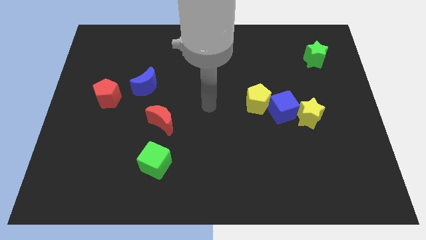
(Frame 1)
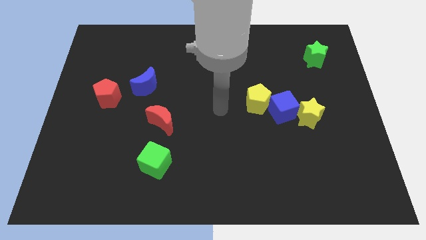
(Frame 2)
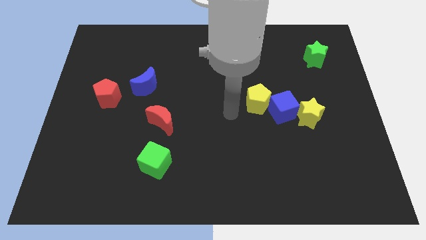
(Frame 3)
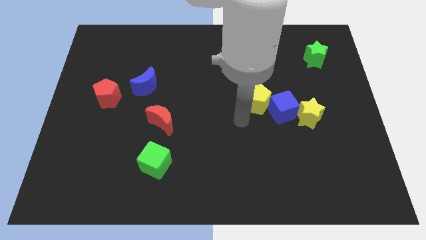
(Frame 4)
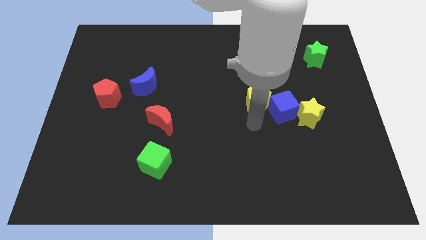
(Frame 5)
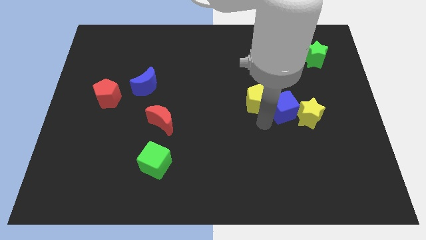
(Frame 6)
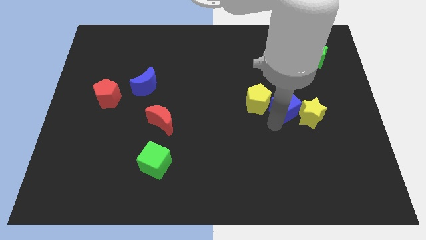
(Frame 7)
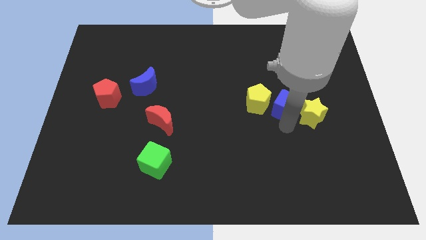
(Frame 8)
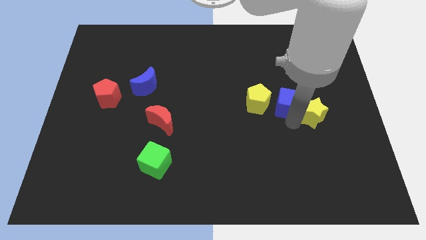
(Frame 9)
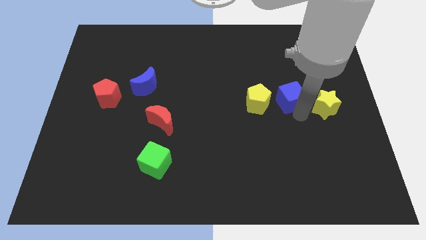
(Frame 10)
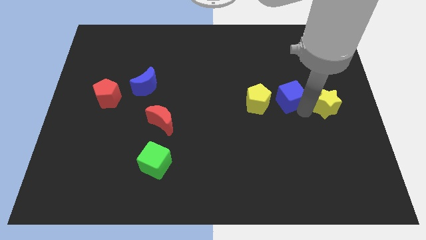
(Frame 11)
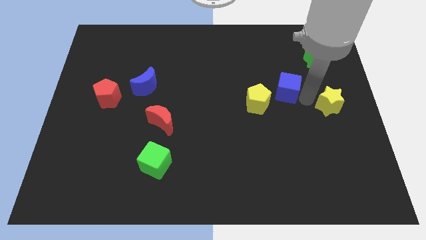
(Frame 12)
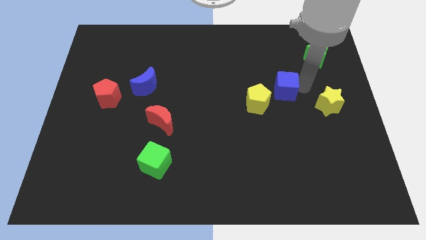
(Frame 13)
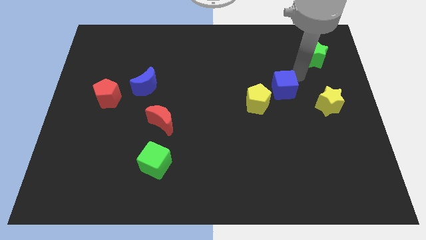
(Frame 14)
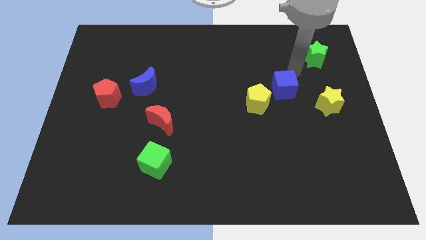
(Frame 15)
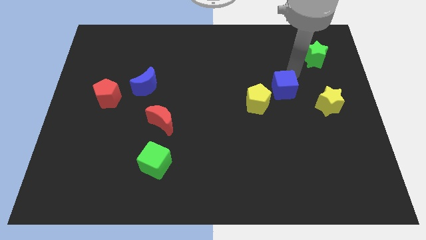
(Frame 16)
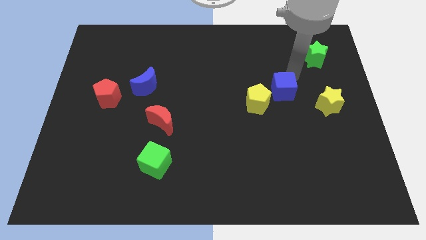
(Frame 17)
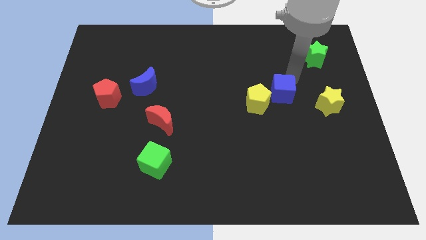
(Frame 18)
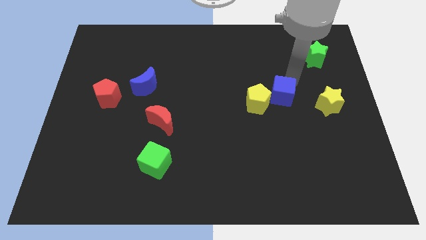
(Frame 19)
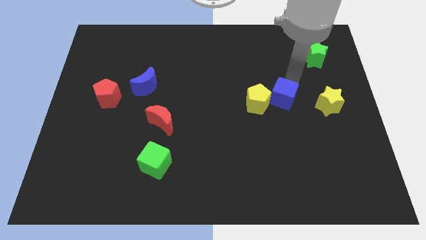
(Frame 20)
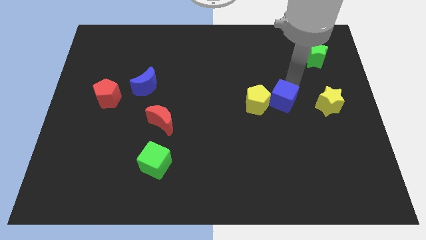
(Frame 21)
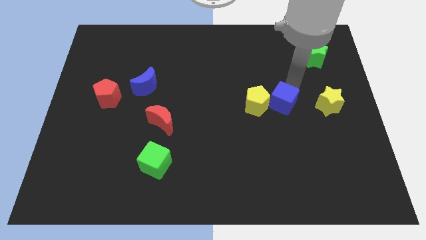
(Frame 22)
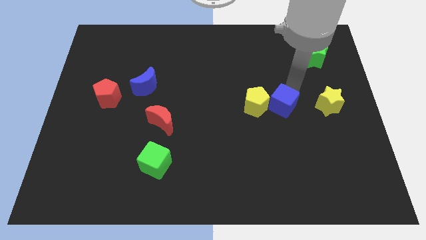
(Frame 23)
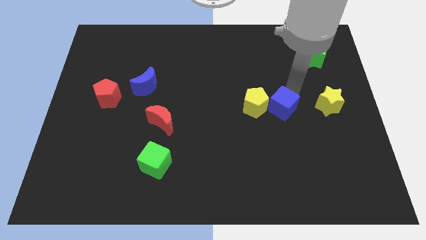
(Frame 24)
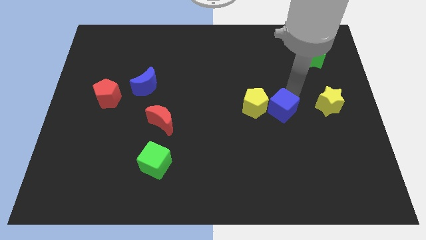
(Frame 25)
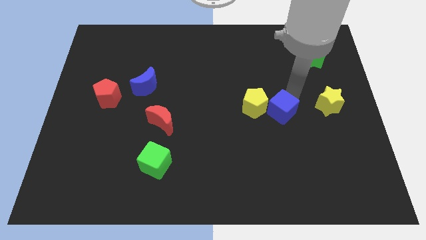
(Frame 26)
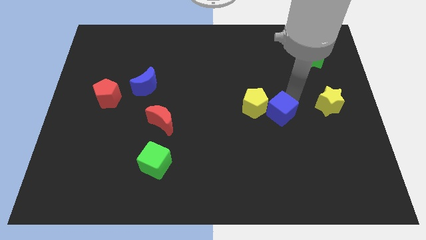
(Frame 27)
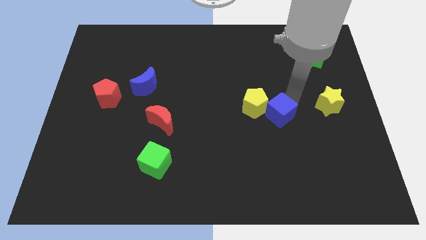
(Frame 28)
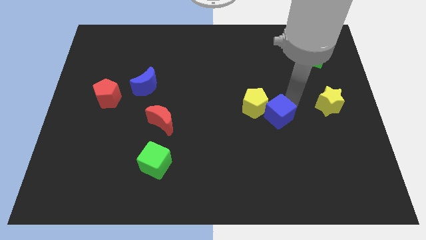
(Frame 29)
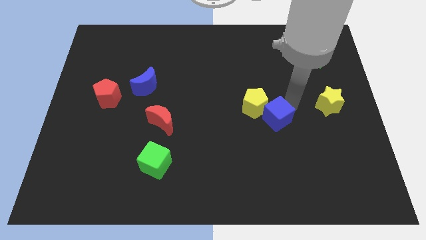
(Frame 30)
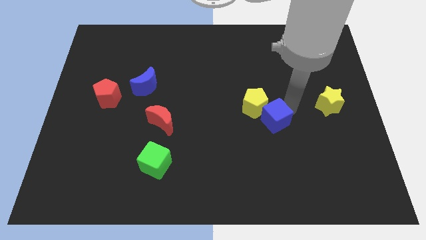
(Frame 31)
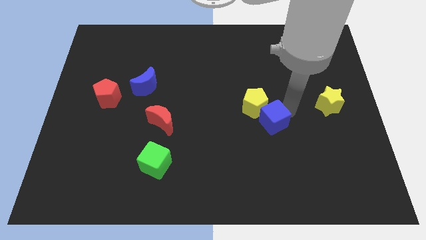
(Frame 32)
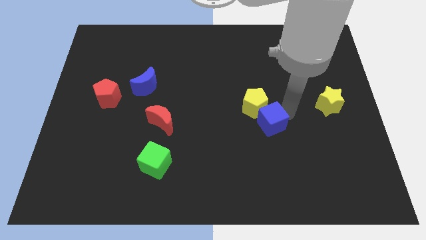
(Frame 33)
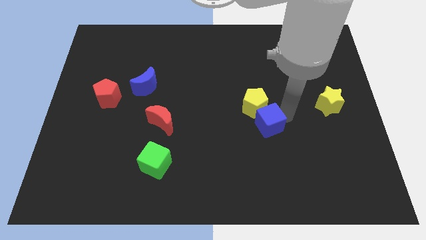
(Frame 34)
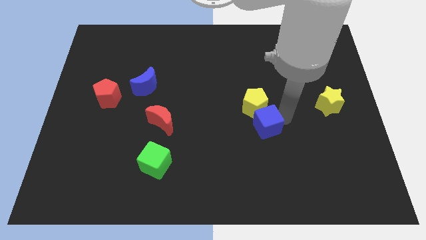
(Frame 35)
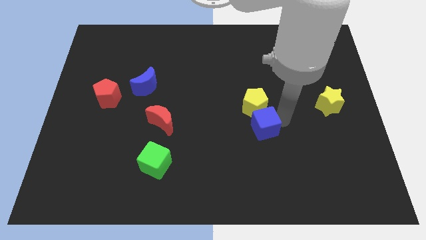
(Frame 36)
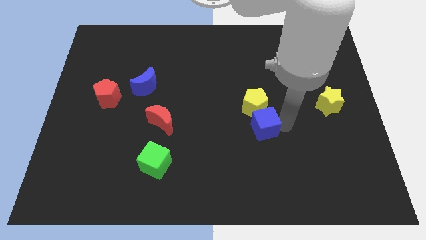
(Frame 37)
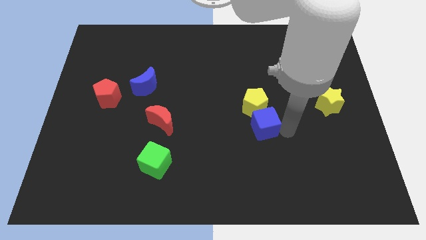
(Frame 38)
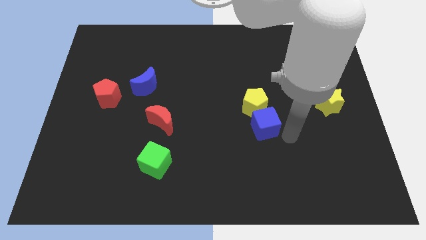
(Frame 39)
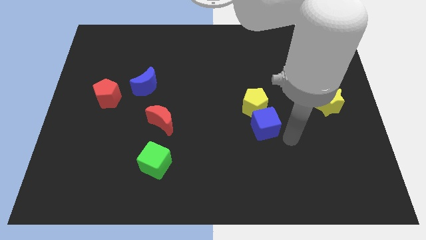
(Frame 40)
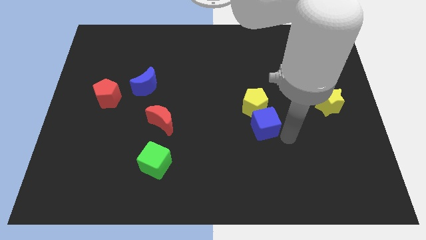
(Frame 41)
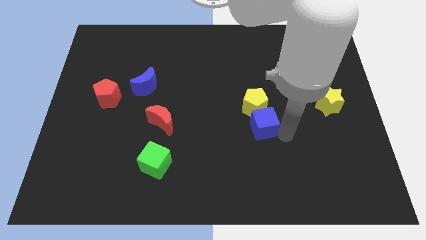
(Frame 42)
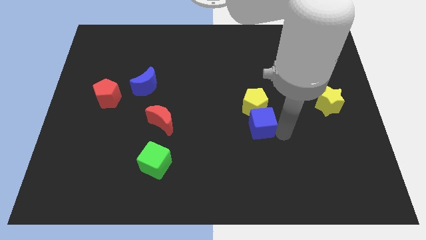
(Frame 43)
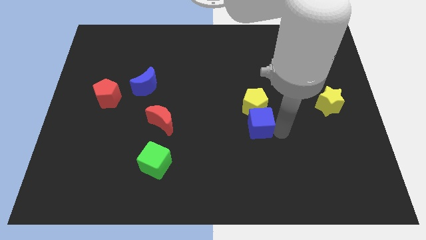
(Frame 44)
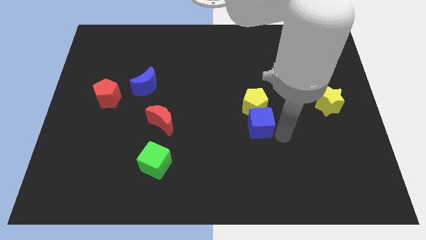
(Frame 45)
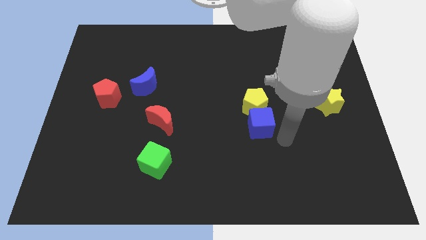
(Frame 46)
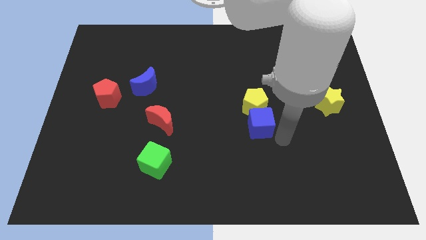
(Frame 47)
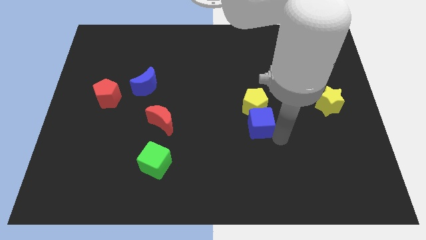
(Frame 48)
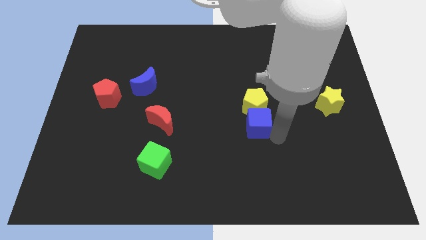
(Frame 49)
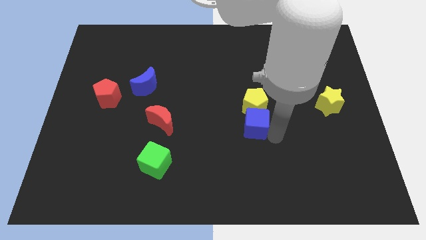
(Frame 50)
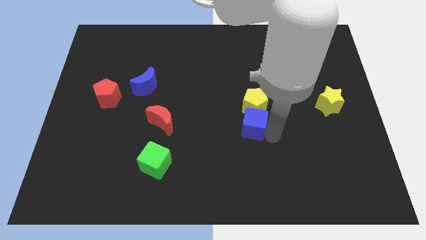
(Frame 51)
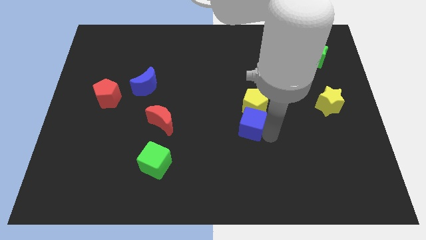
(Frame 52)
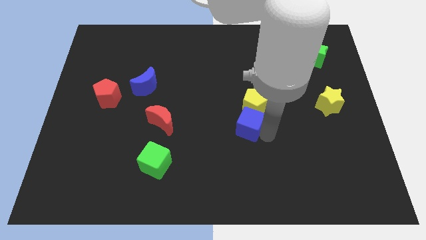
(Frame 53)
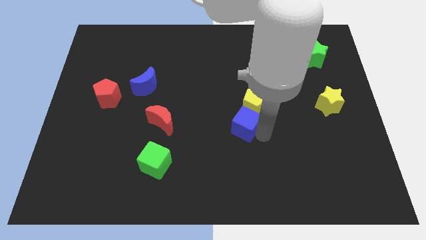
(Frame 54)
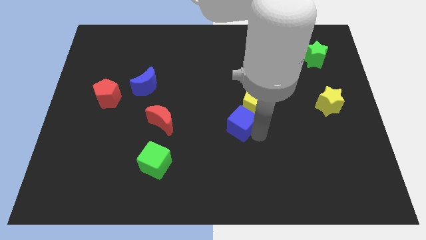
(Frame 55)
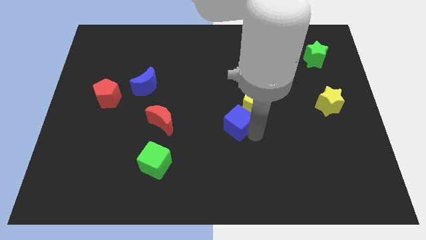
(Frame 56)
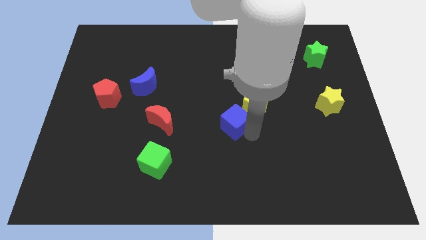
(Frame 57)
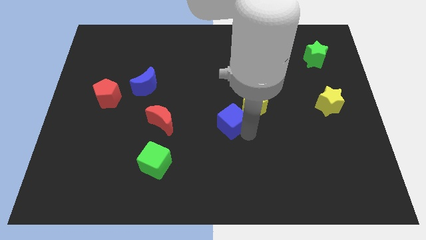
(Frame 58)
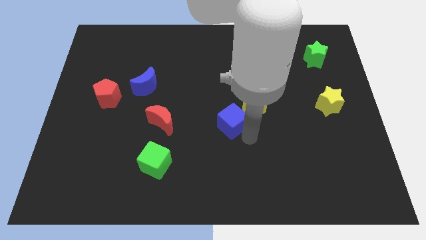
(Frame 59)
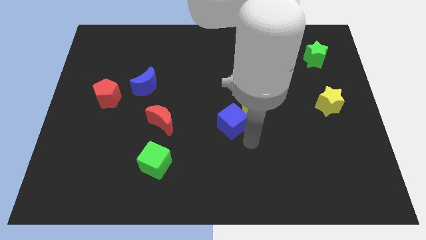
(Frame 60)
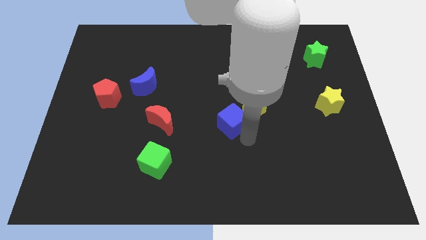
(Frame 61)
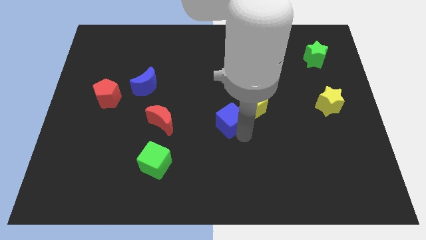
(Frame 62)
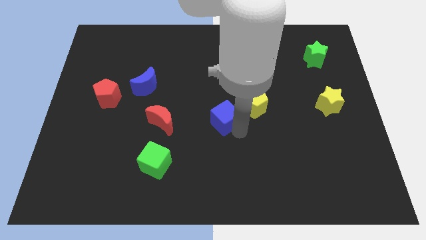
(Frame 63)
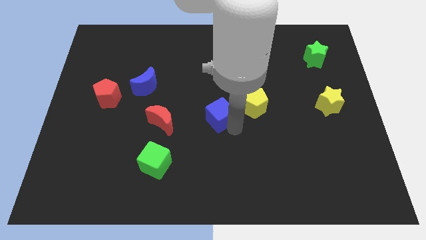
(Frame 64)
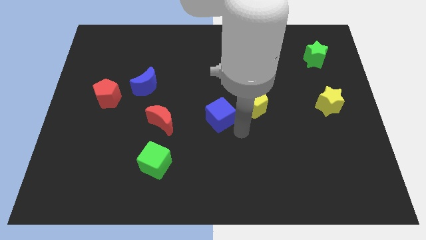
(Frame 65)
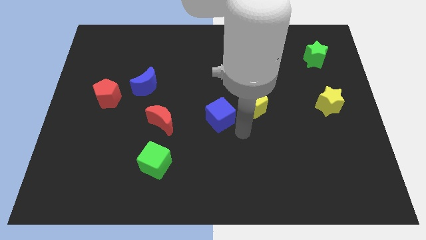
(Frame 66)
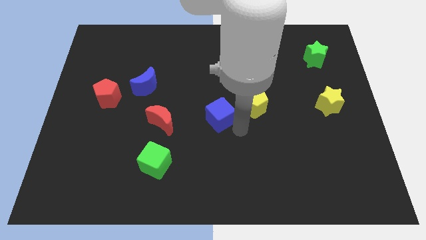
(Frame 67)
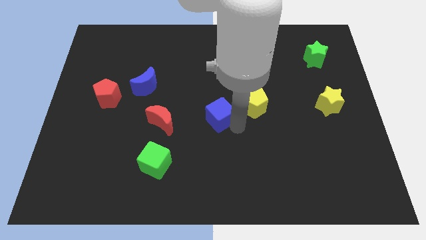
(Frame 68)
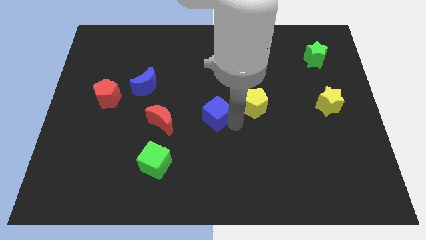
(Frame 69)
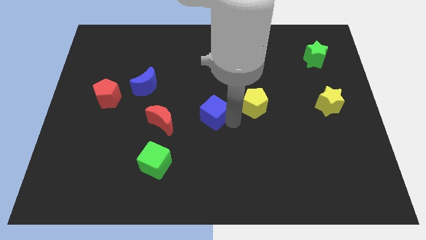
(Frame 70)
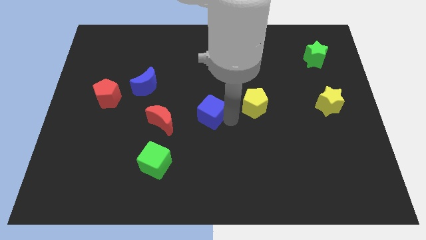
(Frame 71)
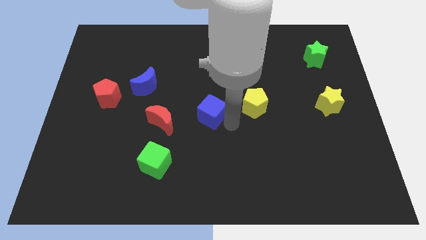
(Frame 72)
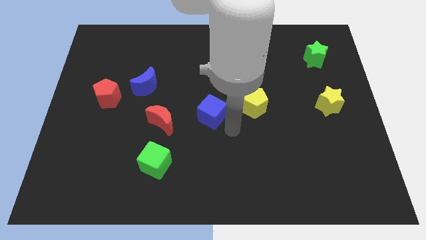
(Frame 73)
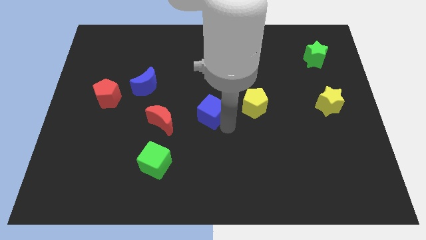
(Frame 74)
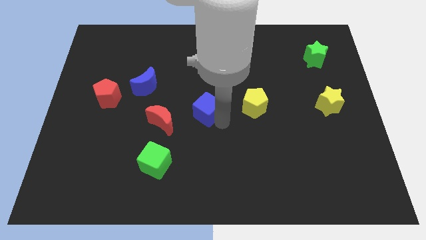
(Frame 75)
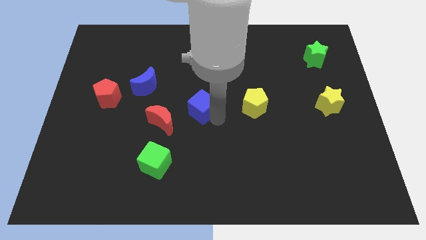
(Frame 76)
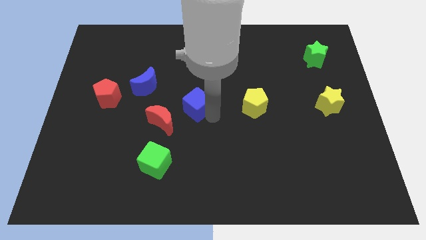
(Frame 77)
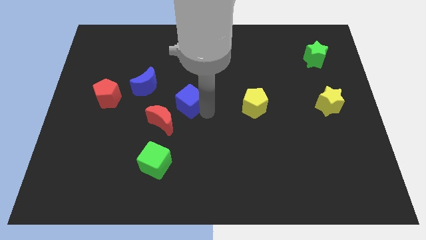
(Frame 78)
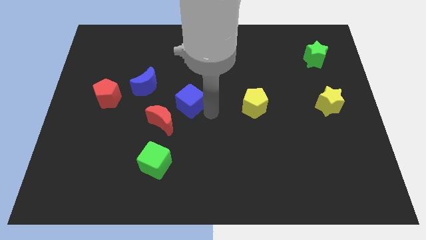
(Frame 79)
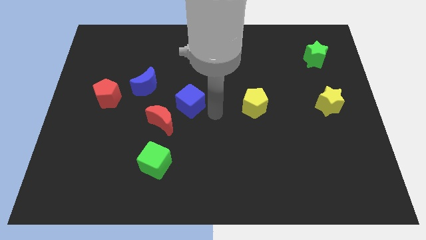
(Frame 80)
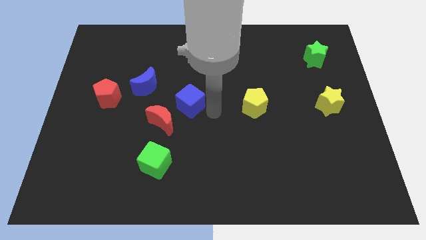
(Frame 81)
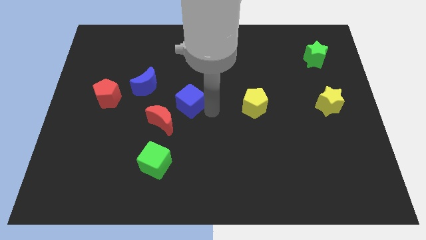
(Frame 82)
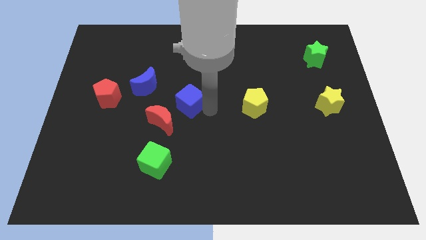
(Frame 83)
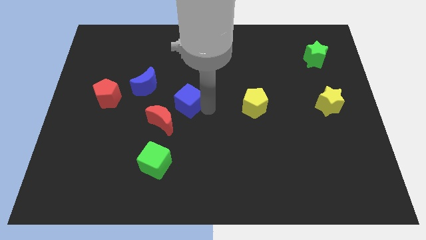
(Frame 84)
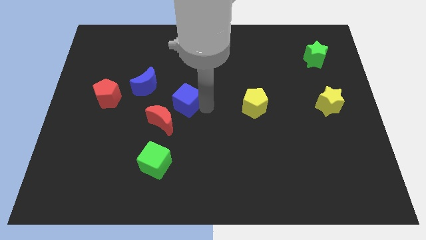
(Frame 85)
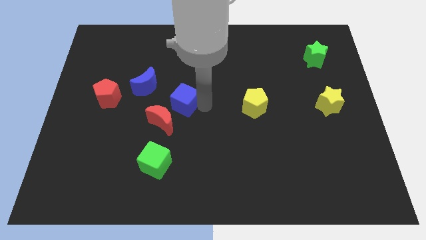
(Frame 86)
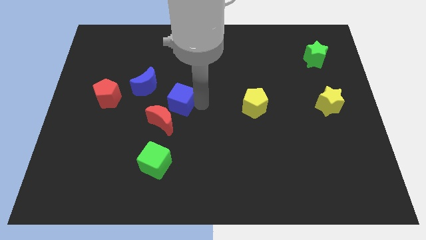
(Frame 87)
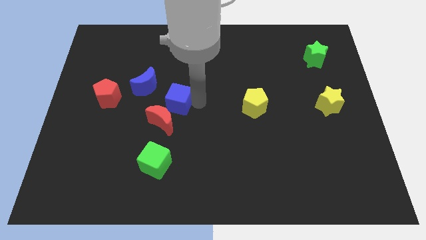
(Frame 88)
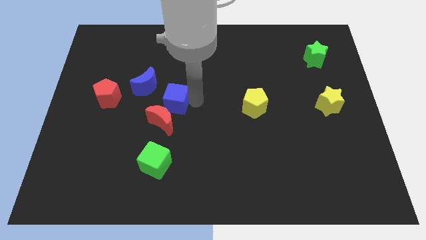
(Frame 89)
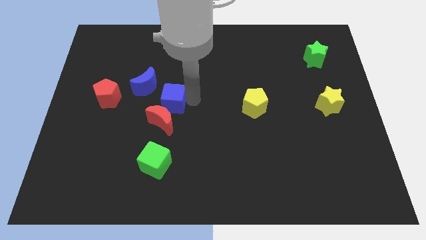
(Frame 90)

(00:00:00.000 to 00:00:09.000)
slide the blue cube to the right of the red pentagon
